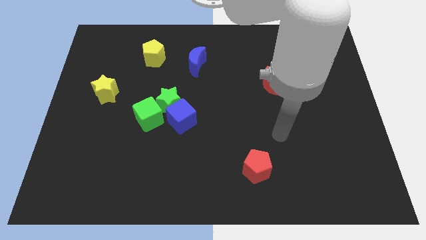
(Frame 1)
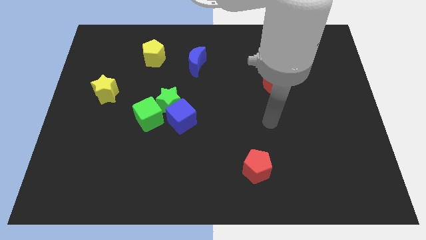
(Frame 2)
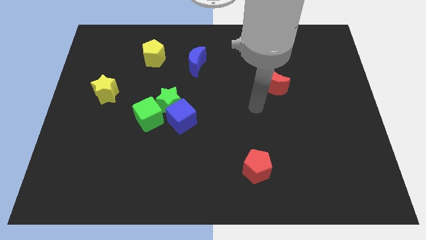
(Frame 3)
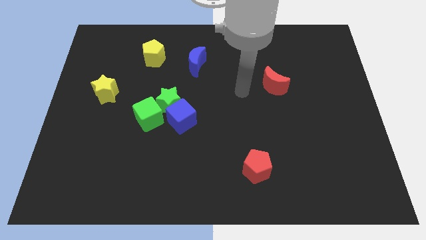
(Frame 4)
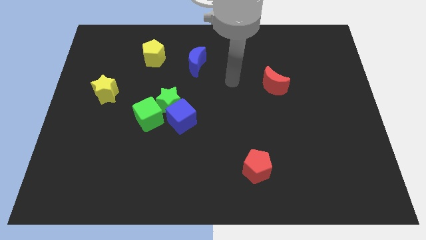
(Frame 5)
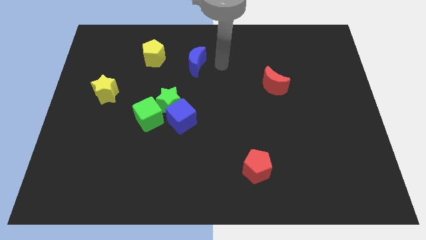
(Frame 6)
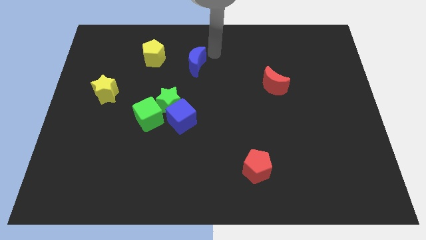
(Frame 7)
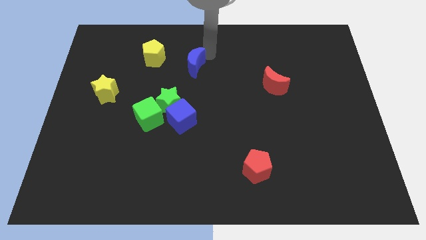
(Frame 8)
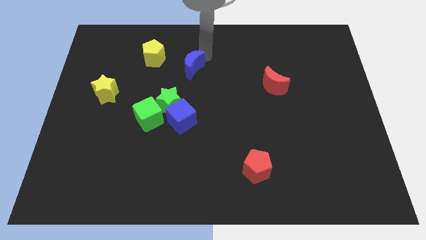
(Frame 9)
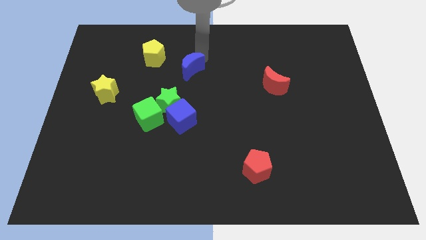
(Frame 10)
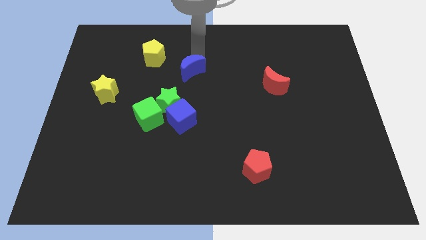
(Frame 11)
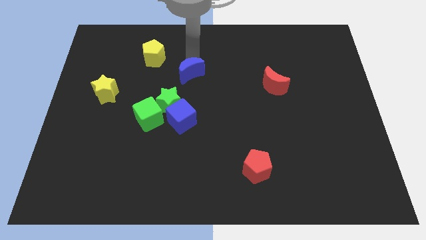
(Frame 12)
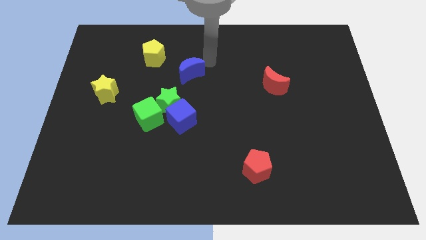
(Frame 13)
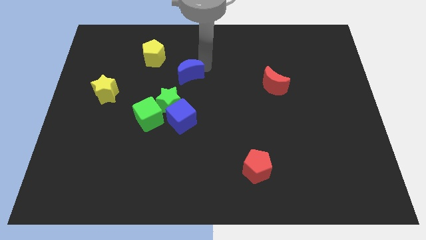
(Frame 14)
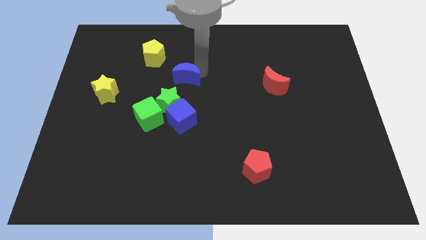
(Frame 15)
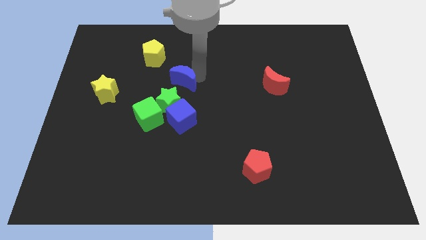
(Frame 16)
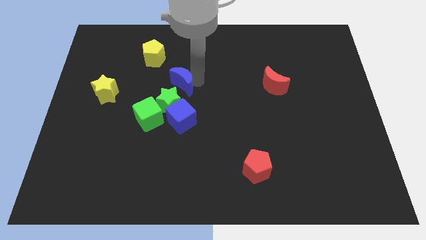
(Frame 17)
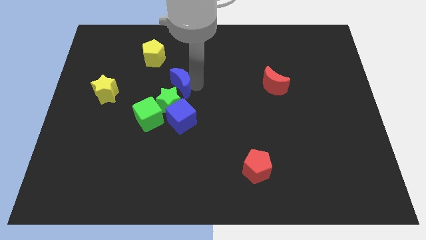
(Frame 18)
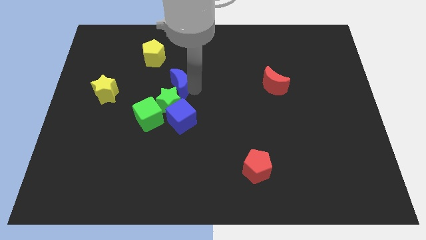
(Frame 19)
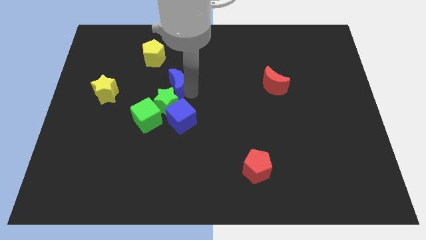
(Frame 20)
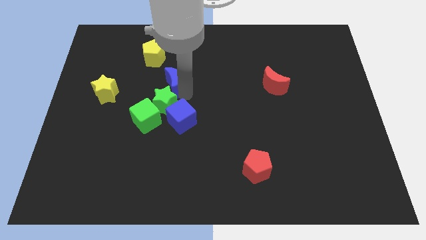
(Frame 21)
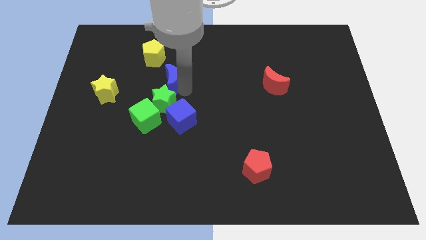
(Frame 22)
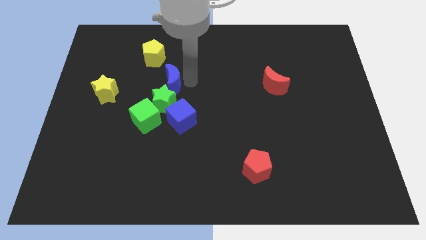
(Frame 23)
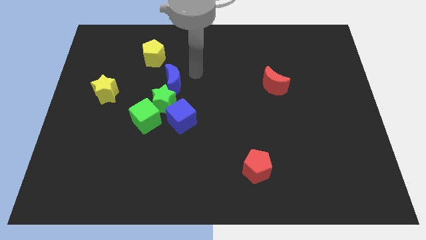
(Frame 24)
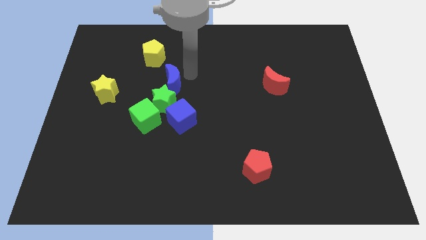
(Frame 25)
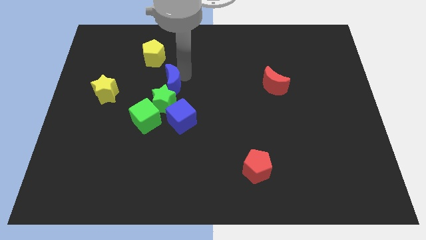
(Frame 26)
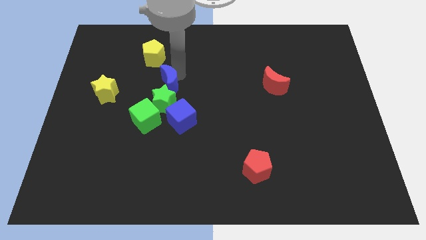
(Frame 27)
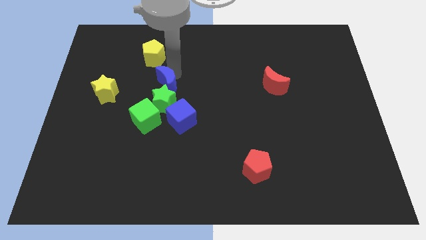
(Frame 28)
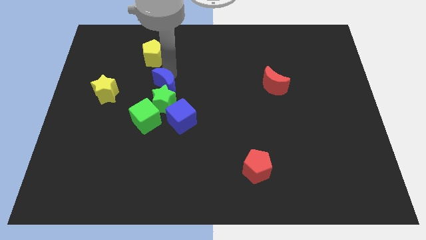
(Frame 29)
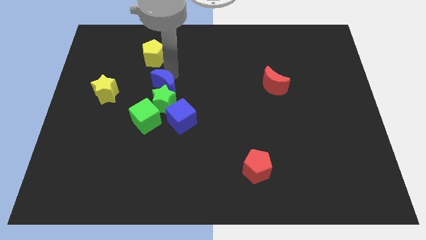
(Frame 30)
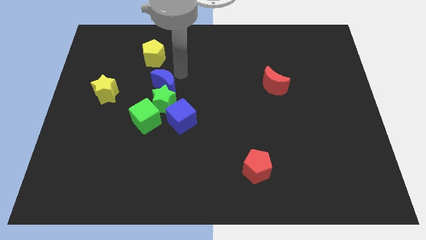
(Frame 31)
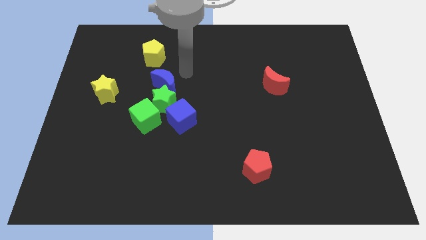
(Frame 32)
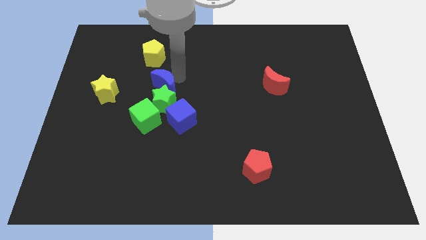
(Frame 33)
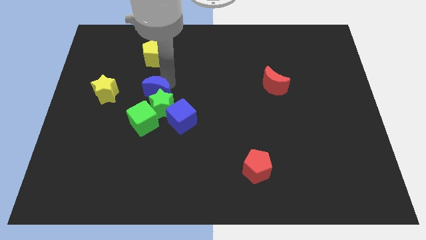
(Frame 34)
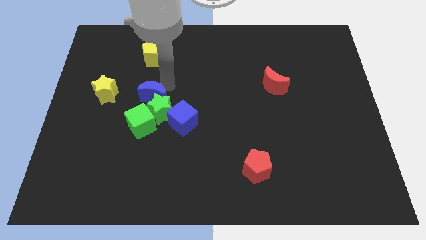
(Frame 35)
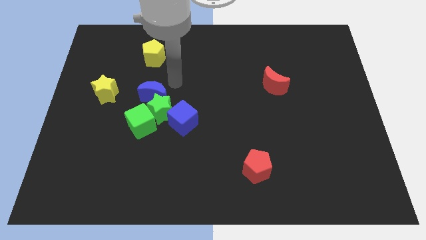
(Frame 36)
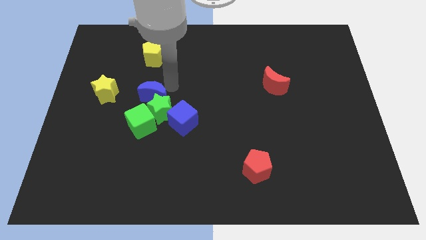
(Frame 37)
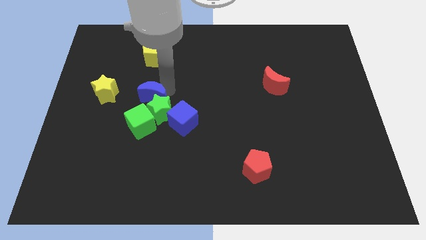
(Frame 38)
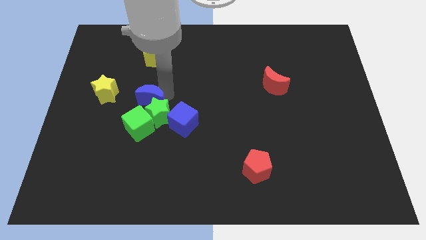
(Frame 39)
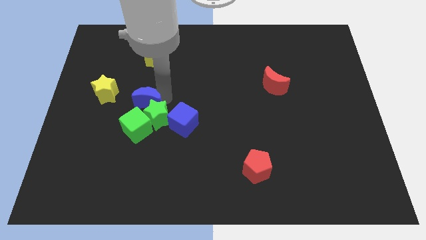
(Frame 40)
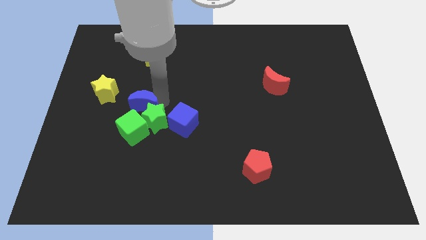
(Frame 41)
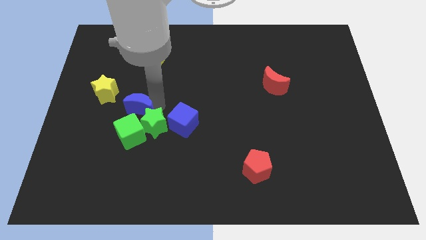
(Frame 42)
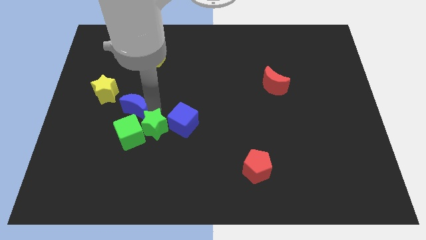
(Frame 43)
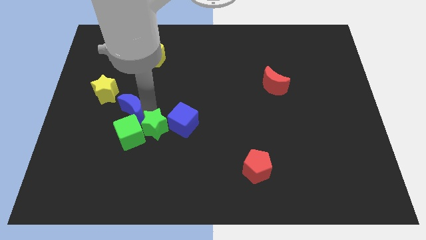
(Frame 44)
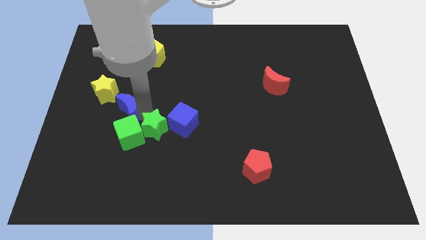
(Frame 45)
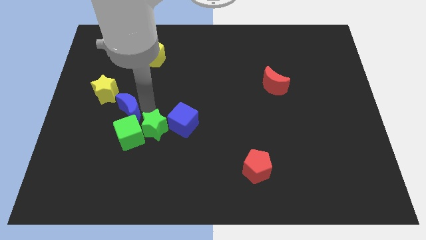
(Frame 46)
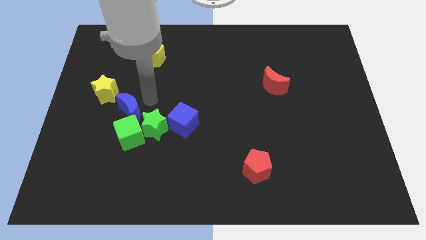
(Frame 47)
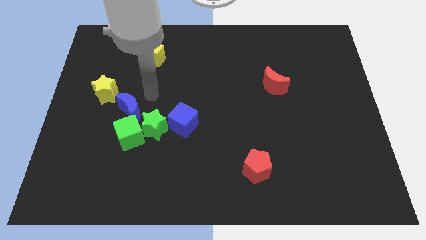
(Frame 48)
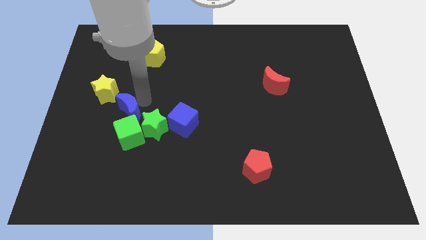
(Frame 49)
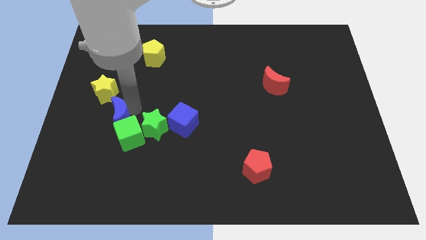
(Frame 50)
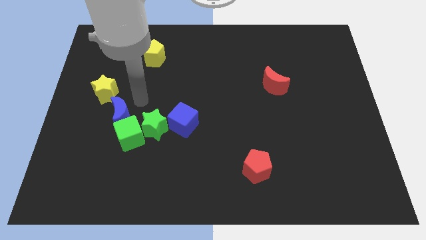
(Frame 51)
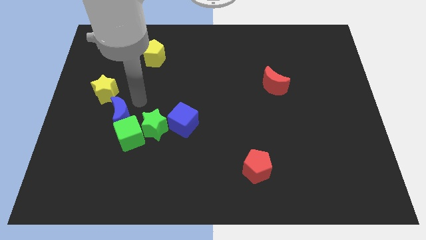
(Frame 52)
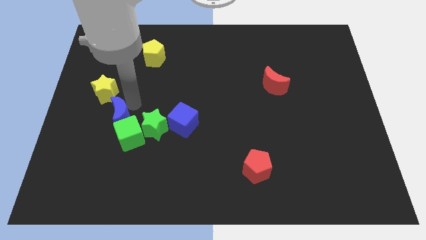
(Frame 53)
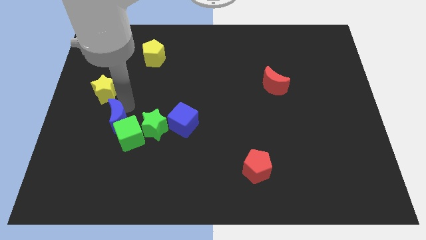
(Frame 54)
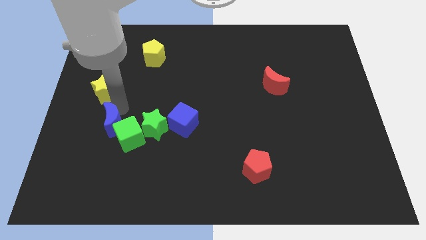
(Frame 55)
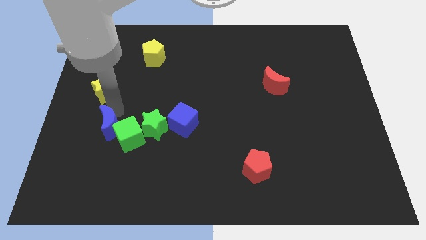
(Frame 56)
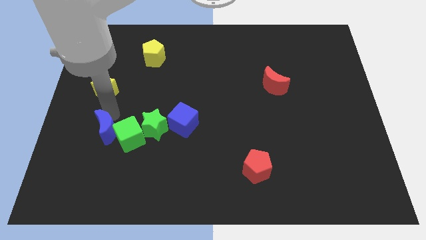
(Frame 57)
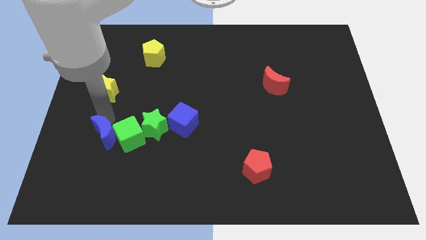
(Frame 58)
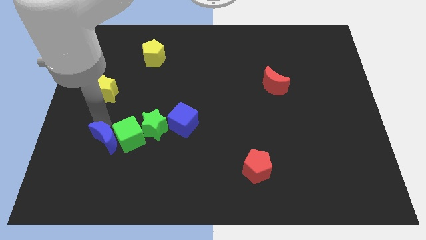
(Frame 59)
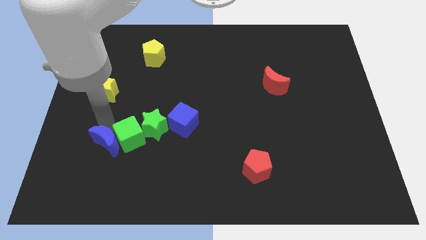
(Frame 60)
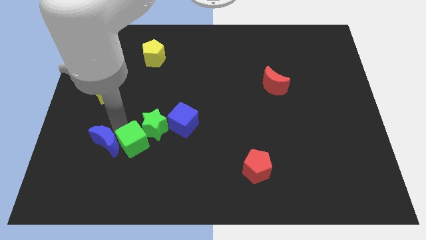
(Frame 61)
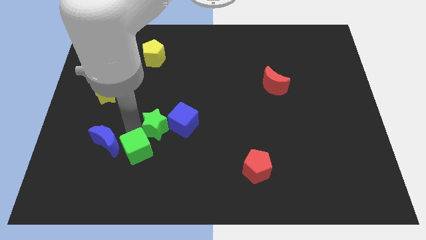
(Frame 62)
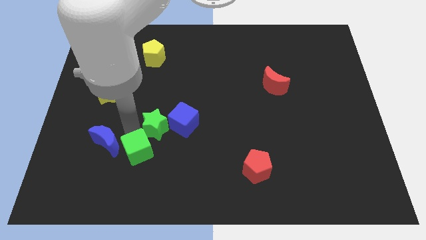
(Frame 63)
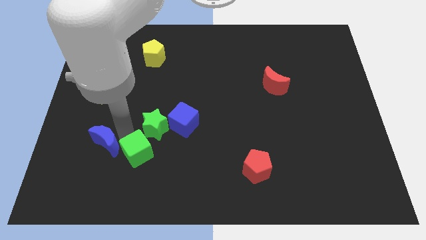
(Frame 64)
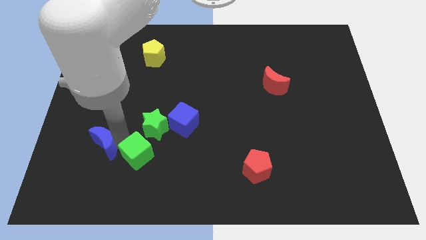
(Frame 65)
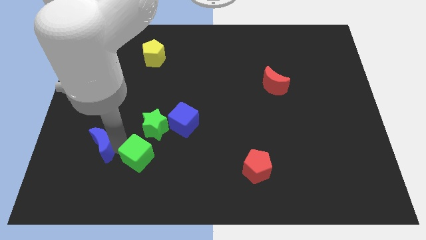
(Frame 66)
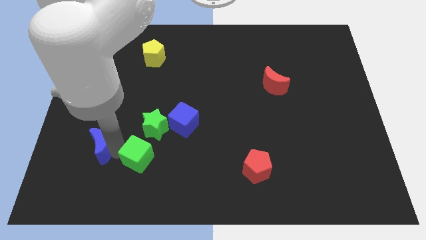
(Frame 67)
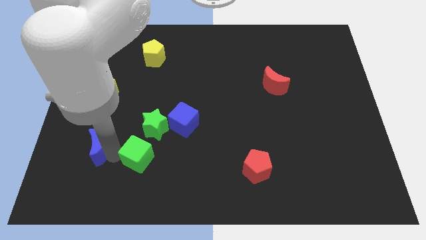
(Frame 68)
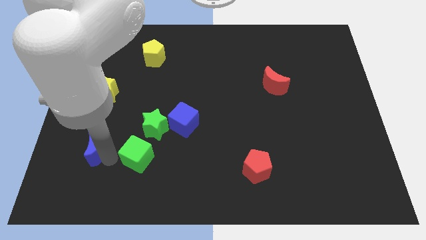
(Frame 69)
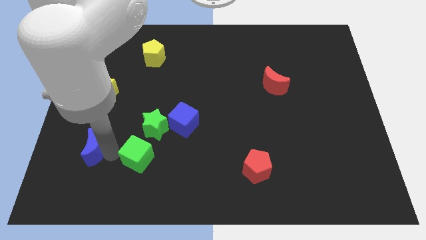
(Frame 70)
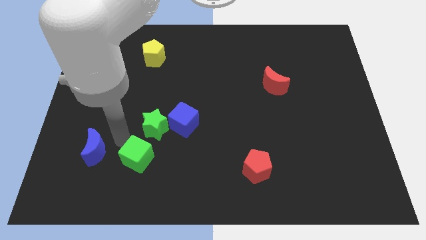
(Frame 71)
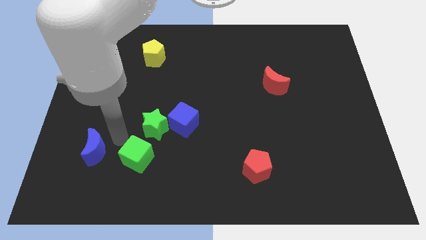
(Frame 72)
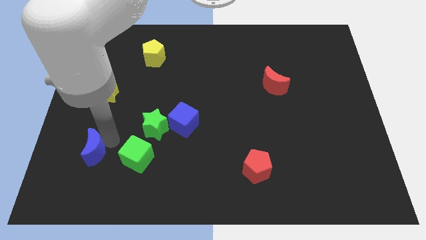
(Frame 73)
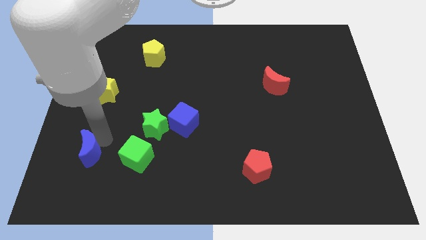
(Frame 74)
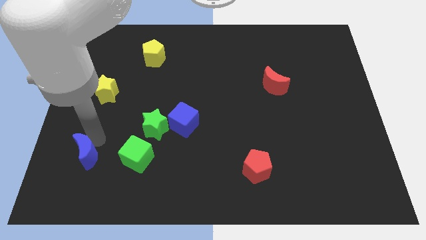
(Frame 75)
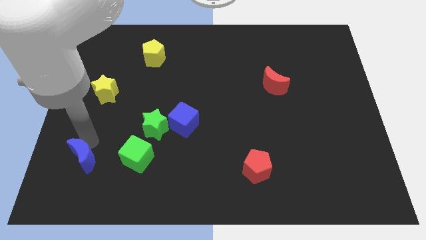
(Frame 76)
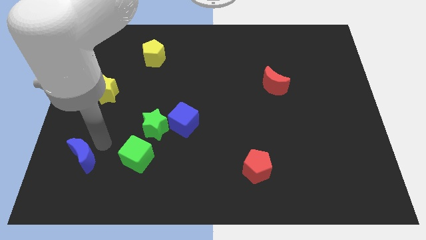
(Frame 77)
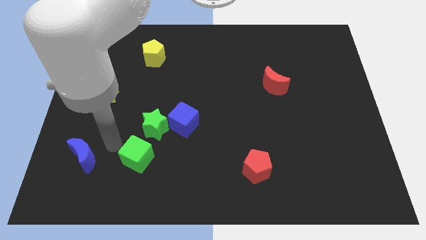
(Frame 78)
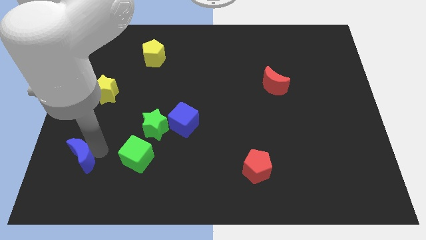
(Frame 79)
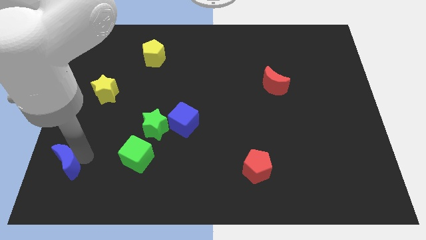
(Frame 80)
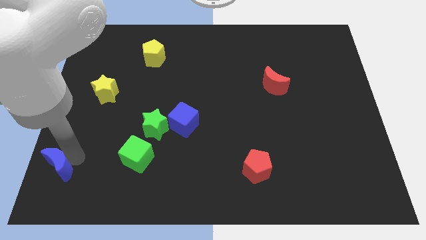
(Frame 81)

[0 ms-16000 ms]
push the blue moon to the bottom left corner
